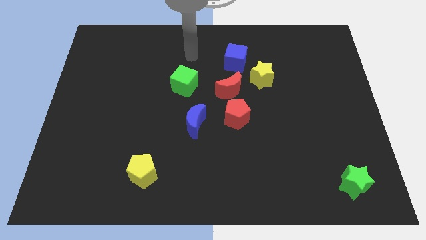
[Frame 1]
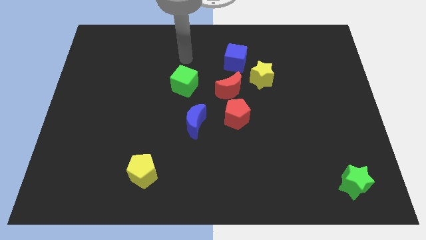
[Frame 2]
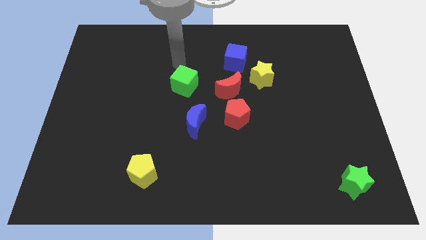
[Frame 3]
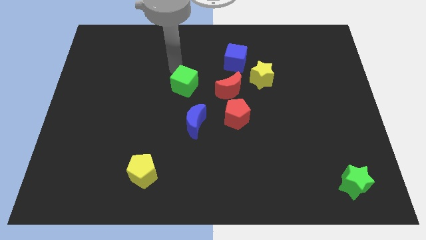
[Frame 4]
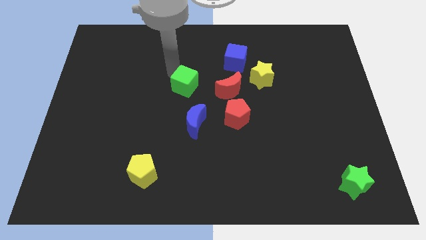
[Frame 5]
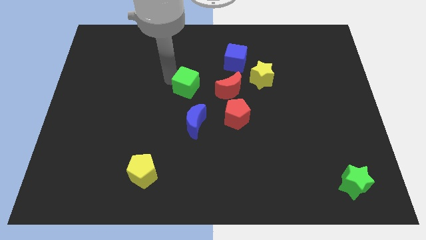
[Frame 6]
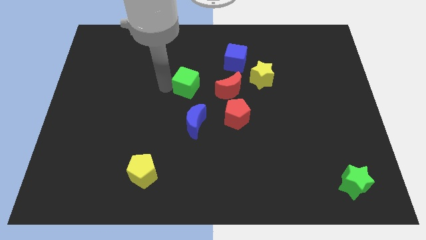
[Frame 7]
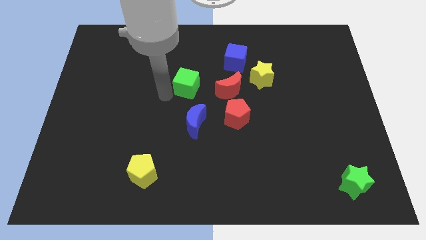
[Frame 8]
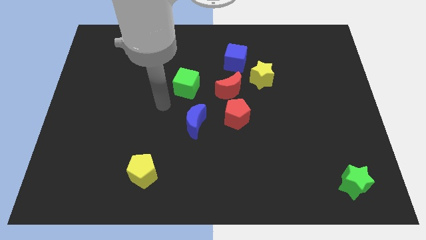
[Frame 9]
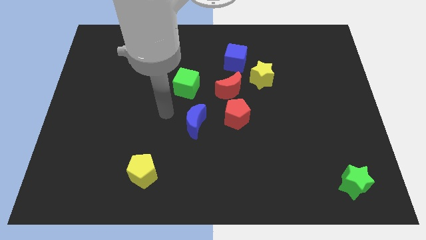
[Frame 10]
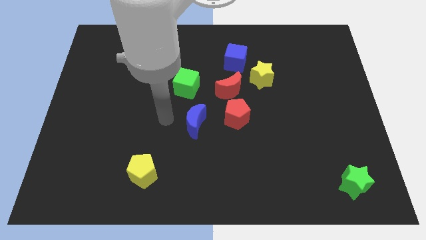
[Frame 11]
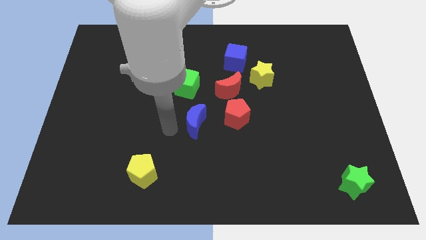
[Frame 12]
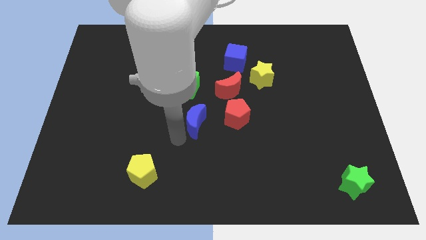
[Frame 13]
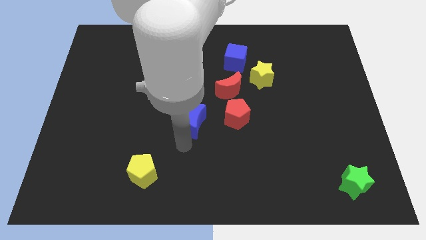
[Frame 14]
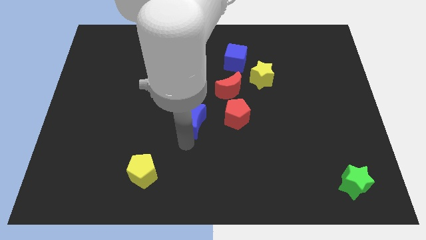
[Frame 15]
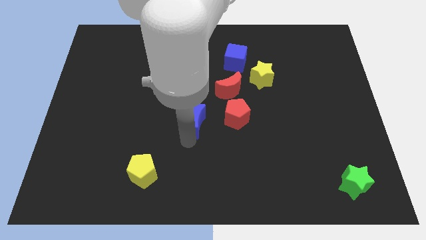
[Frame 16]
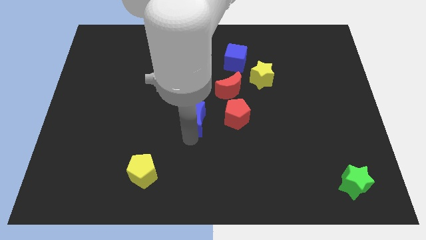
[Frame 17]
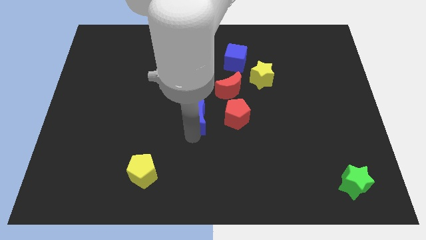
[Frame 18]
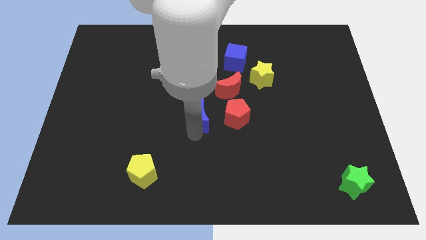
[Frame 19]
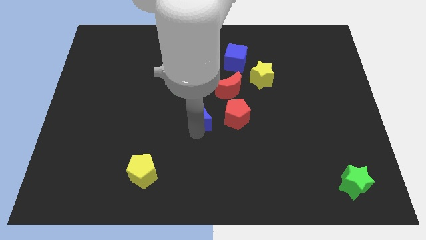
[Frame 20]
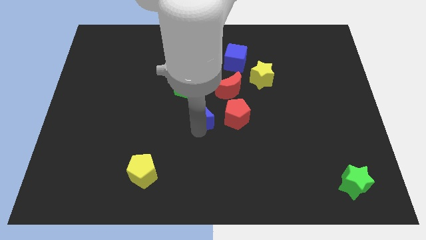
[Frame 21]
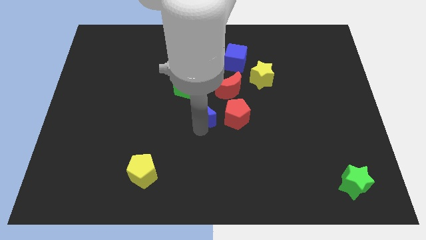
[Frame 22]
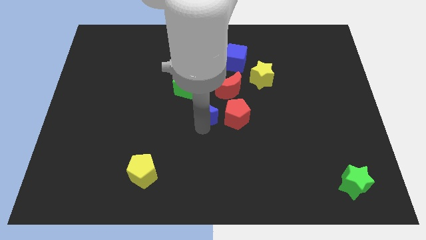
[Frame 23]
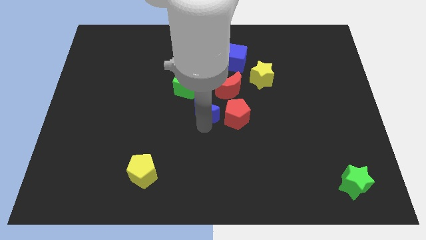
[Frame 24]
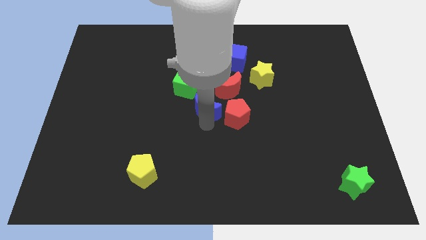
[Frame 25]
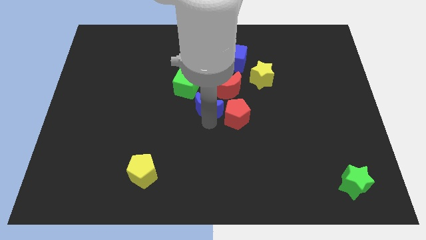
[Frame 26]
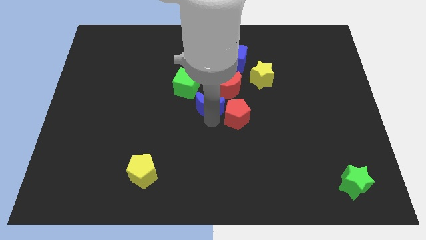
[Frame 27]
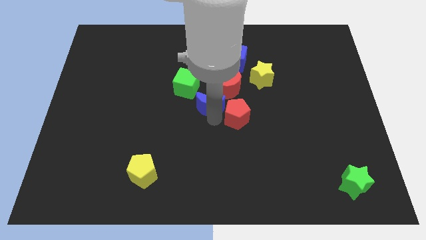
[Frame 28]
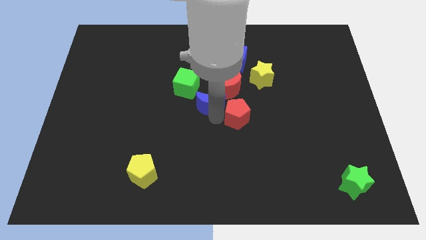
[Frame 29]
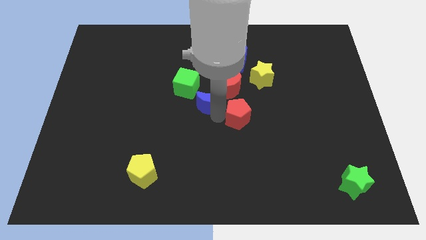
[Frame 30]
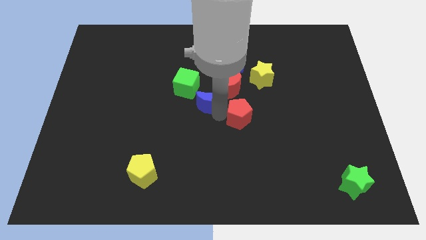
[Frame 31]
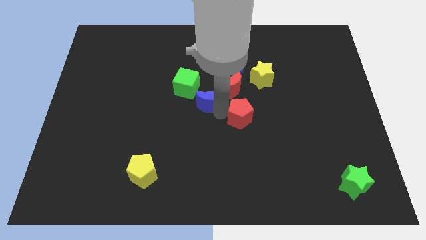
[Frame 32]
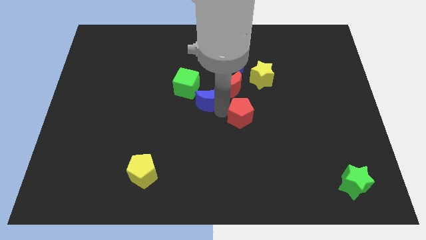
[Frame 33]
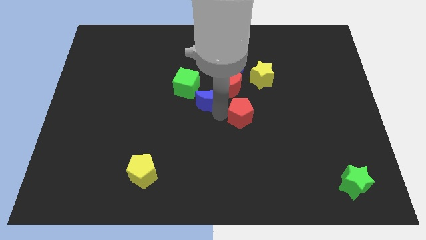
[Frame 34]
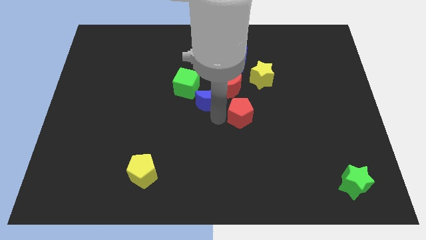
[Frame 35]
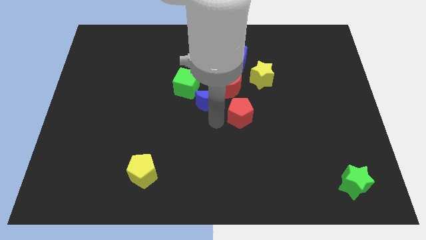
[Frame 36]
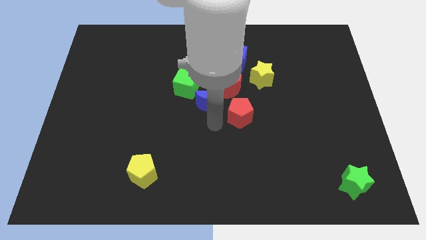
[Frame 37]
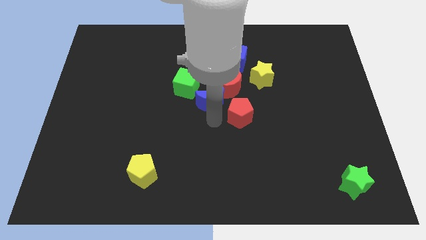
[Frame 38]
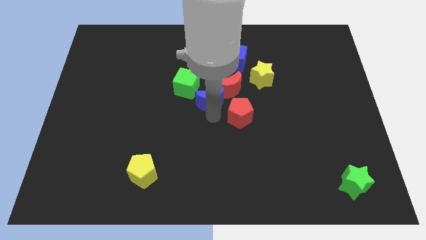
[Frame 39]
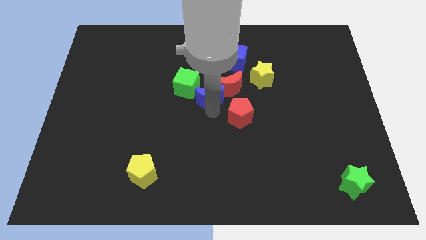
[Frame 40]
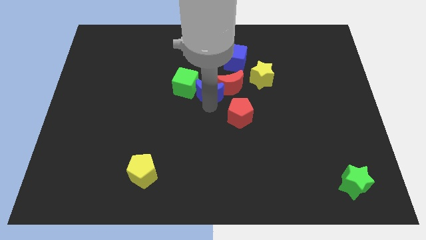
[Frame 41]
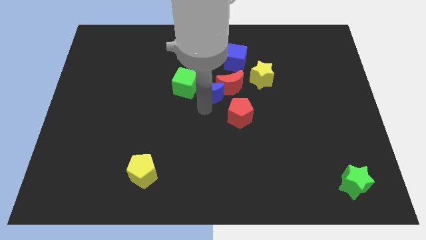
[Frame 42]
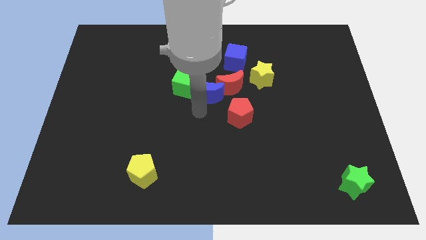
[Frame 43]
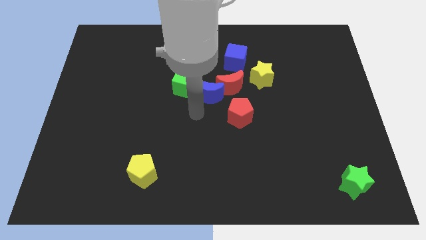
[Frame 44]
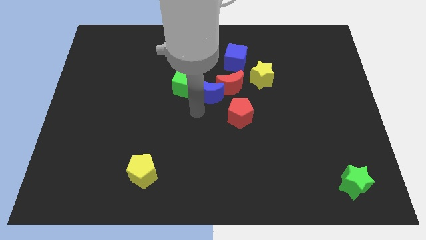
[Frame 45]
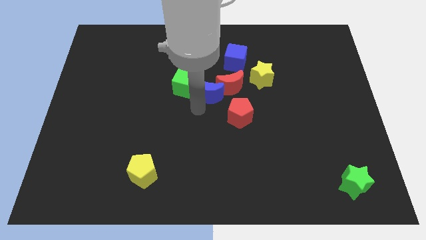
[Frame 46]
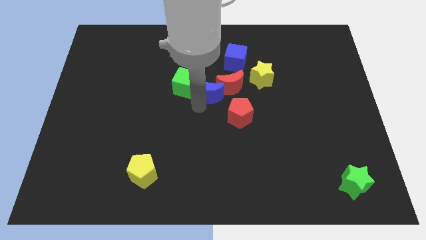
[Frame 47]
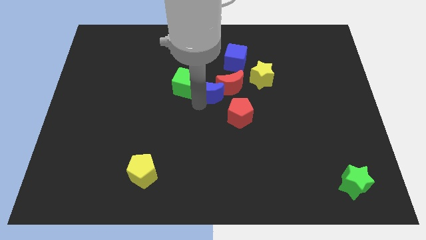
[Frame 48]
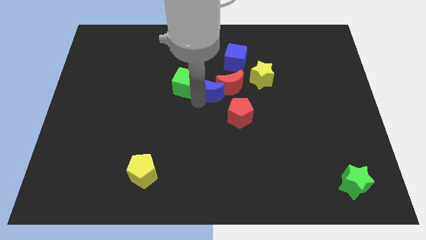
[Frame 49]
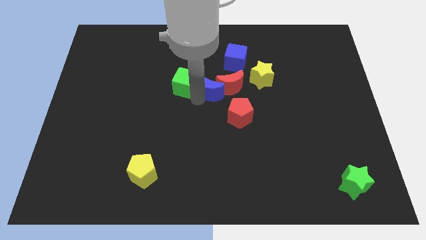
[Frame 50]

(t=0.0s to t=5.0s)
slide the blue moon left of the yellow star

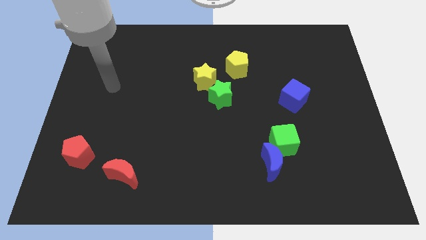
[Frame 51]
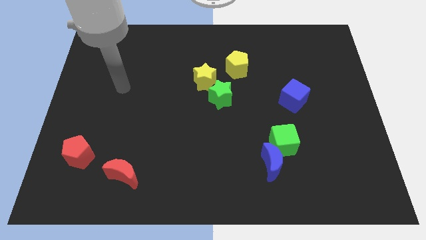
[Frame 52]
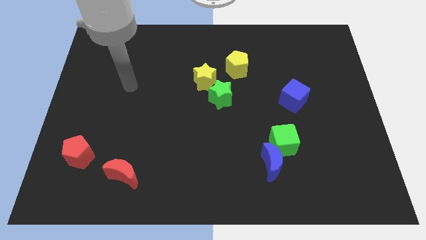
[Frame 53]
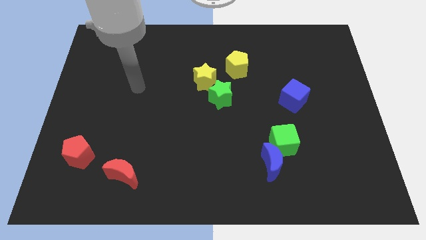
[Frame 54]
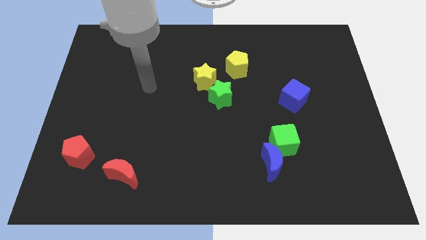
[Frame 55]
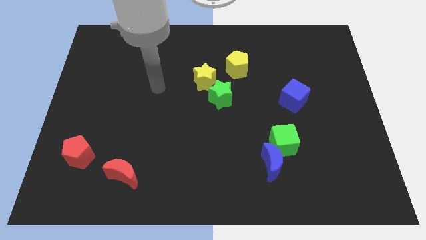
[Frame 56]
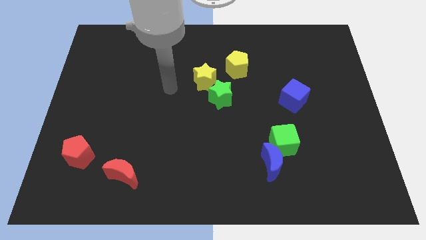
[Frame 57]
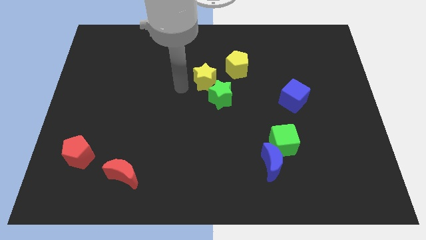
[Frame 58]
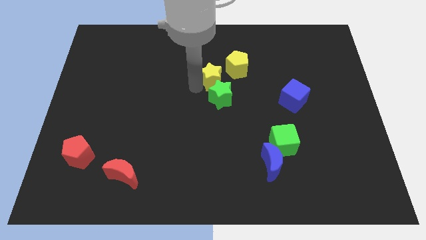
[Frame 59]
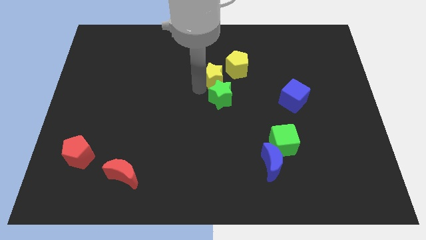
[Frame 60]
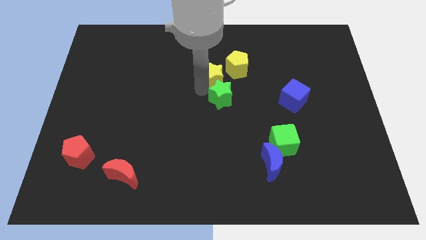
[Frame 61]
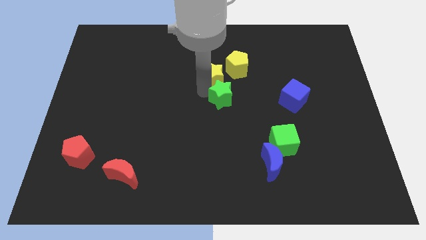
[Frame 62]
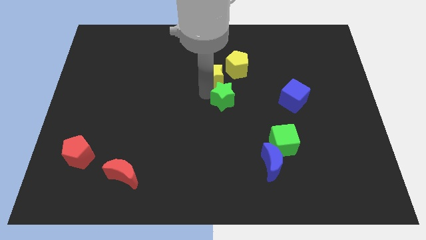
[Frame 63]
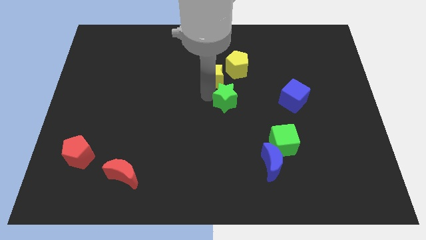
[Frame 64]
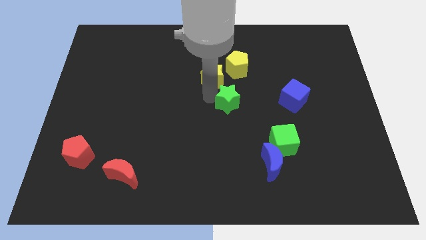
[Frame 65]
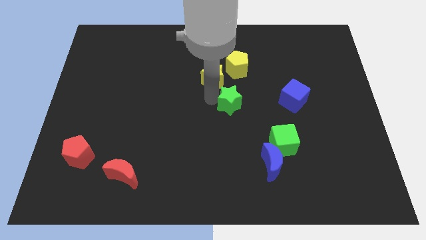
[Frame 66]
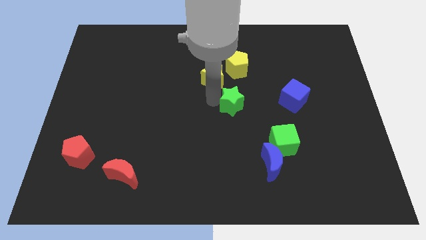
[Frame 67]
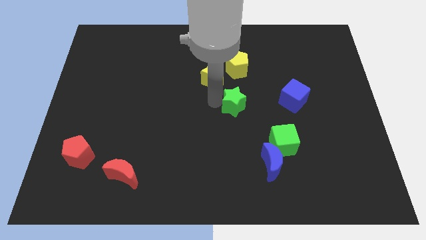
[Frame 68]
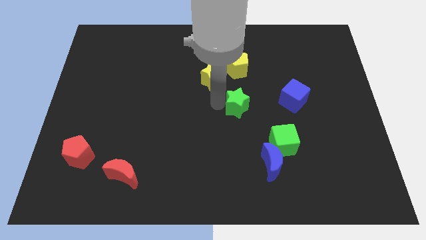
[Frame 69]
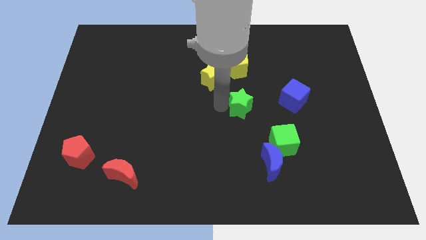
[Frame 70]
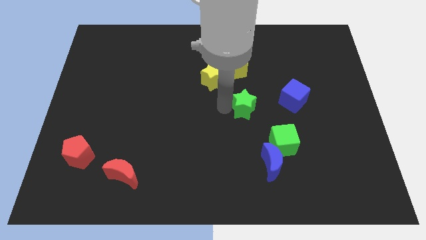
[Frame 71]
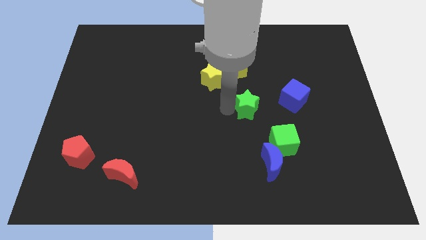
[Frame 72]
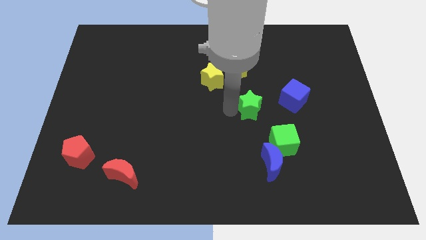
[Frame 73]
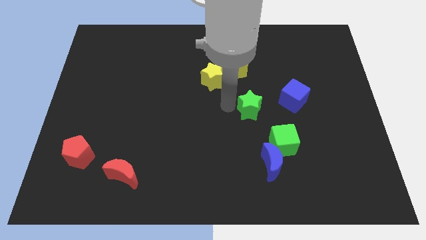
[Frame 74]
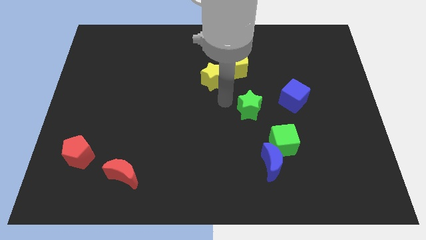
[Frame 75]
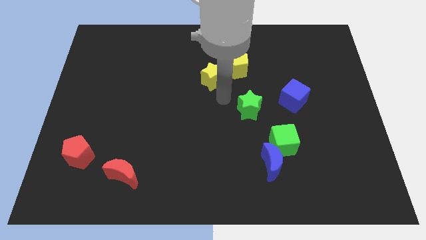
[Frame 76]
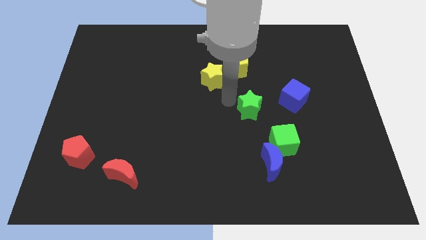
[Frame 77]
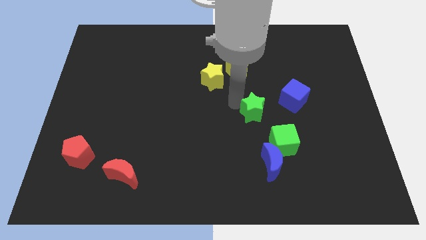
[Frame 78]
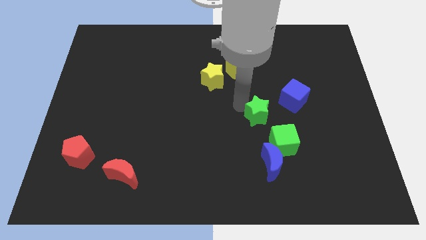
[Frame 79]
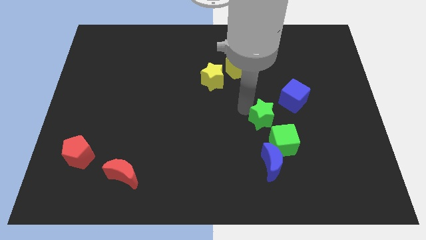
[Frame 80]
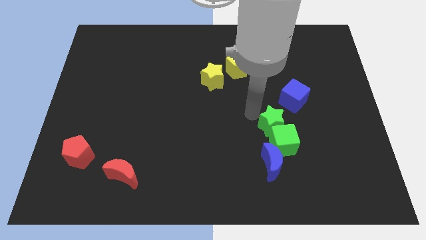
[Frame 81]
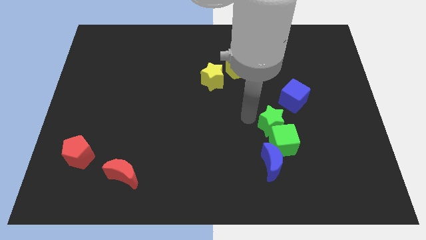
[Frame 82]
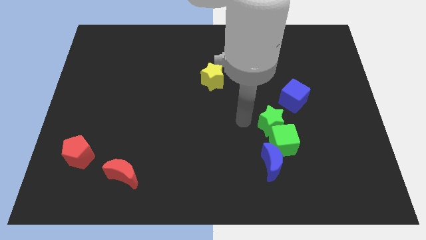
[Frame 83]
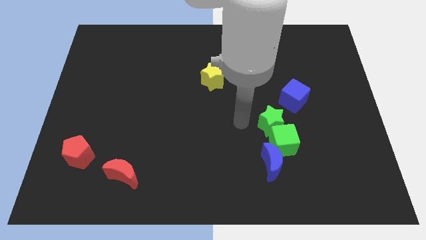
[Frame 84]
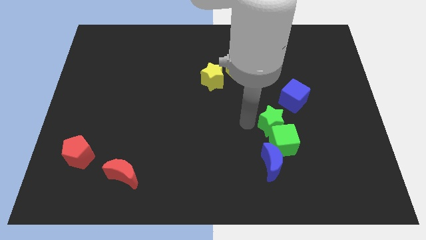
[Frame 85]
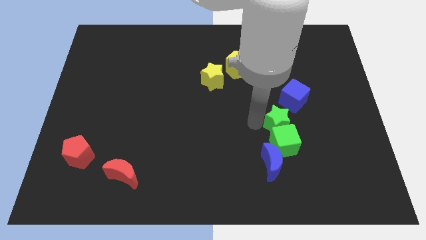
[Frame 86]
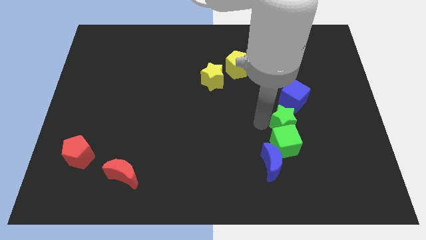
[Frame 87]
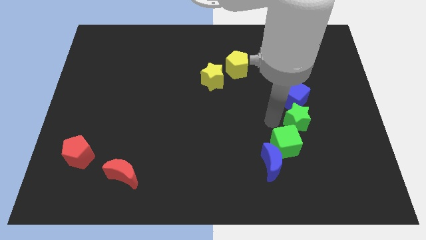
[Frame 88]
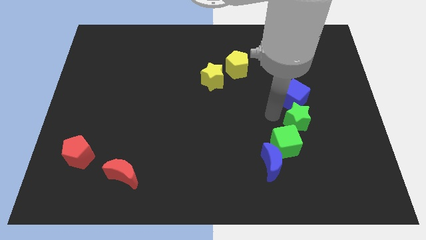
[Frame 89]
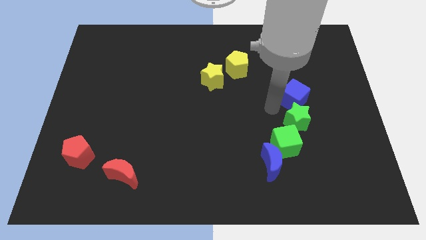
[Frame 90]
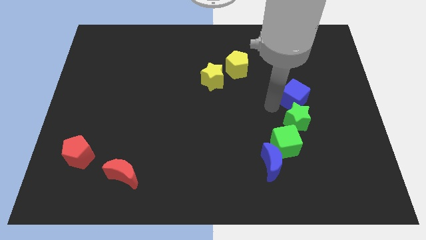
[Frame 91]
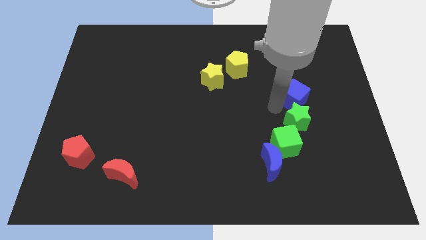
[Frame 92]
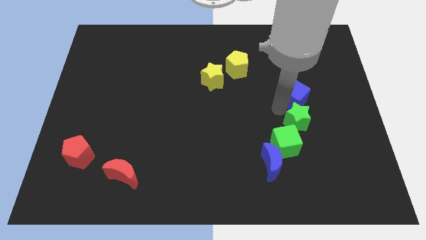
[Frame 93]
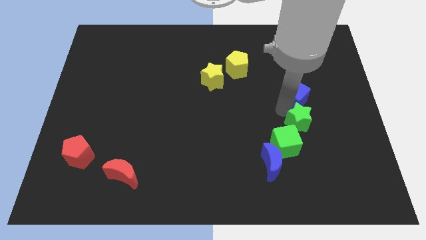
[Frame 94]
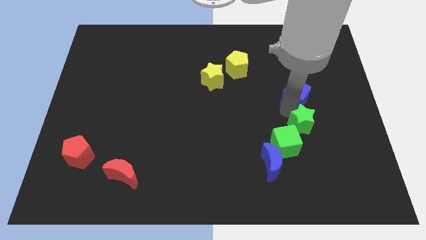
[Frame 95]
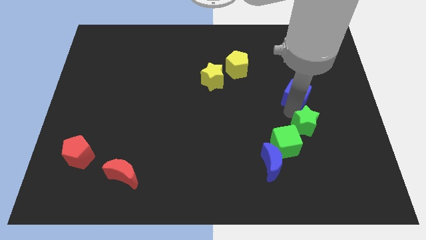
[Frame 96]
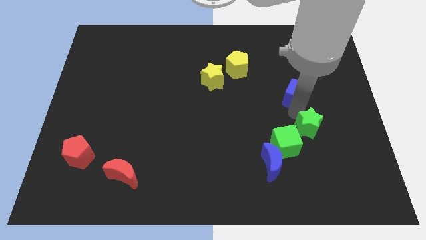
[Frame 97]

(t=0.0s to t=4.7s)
move the green star just right of the green cube
